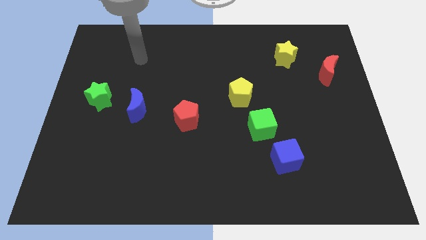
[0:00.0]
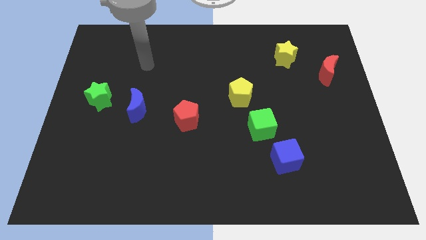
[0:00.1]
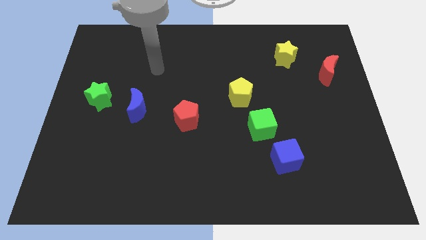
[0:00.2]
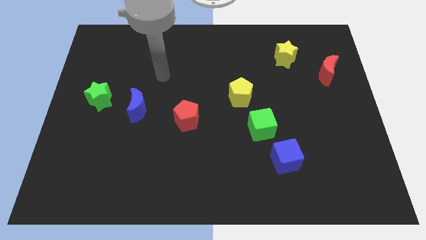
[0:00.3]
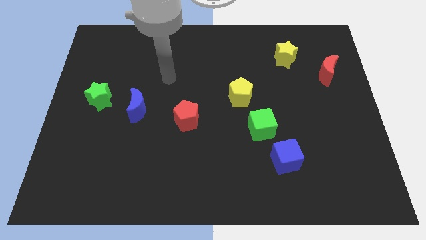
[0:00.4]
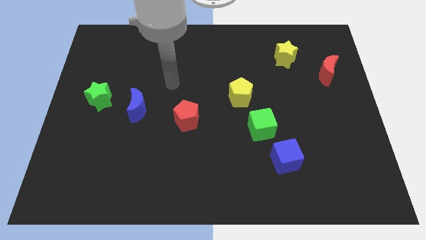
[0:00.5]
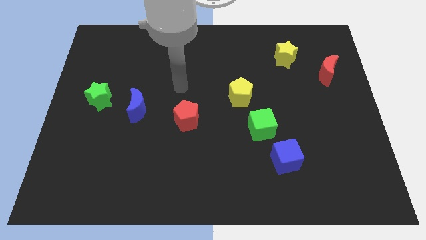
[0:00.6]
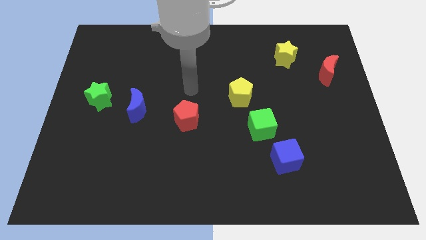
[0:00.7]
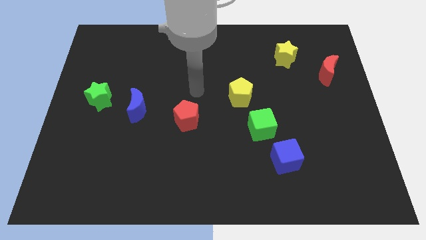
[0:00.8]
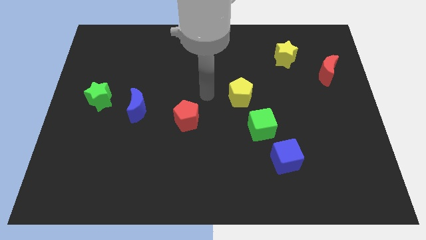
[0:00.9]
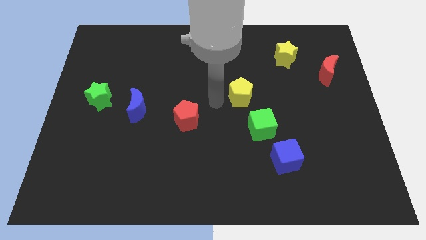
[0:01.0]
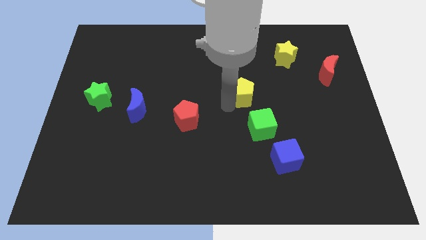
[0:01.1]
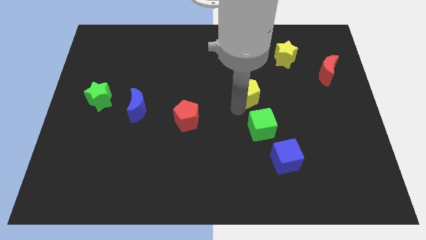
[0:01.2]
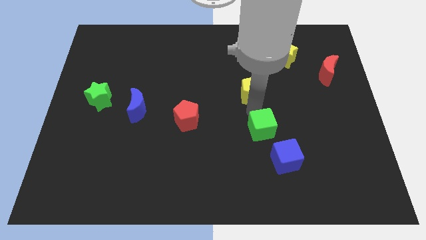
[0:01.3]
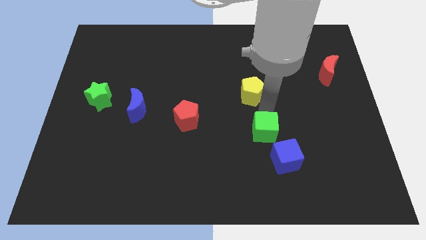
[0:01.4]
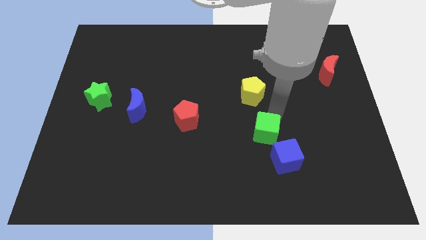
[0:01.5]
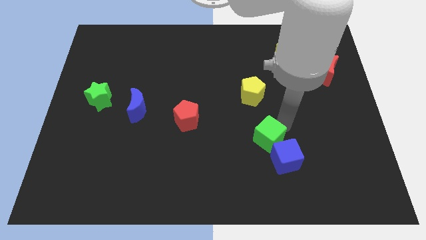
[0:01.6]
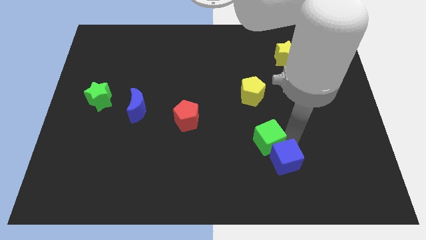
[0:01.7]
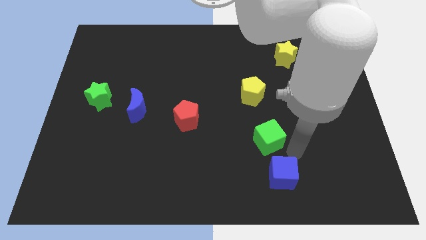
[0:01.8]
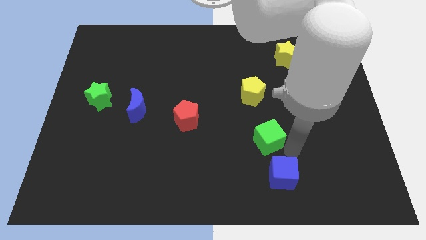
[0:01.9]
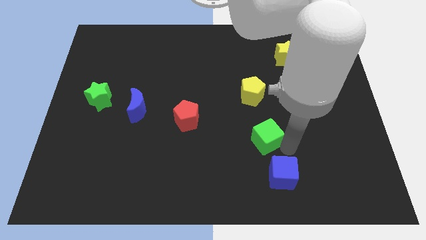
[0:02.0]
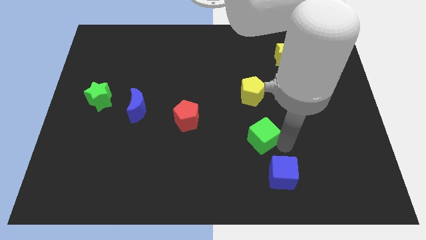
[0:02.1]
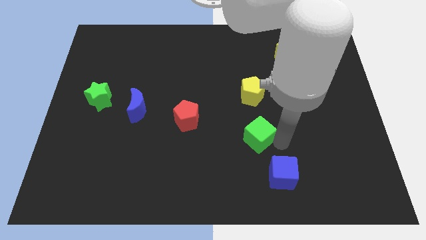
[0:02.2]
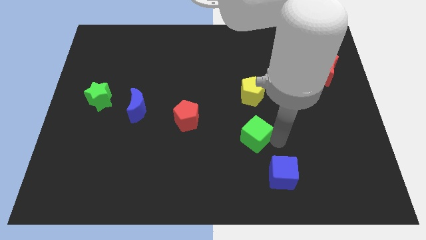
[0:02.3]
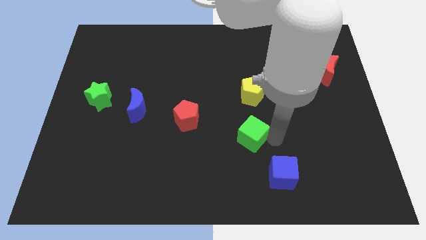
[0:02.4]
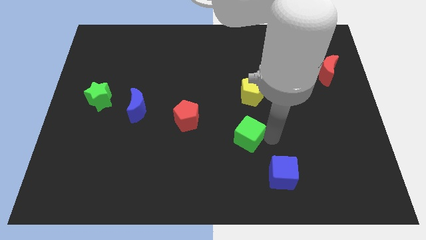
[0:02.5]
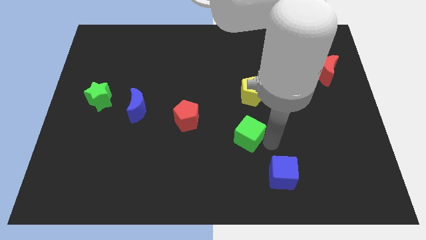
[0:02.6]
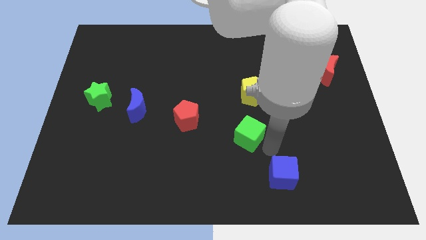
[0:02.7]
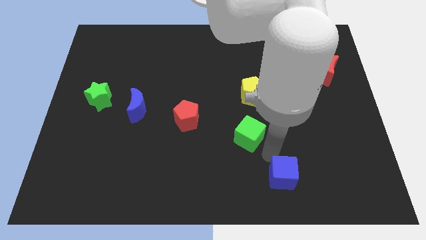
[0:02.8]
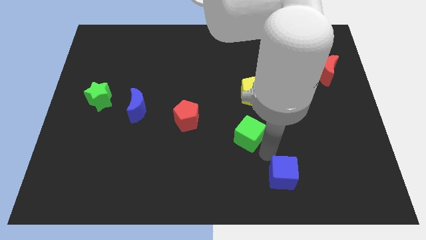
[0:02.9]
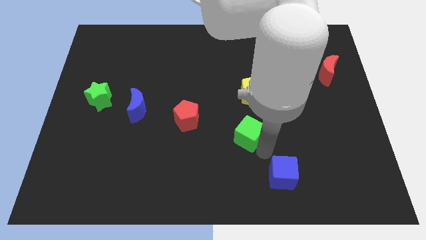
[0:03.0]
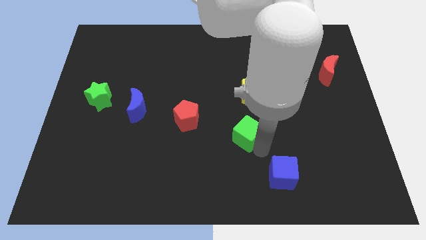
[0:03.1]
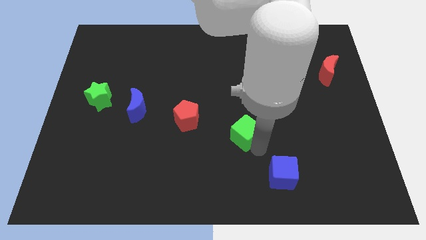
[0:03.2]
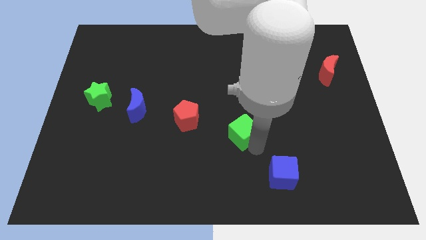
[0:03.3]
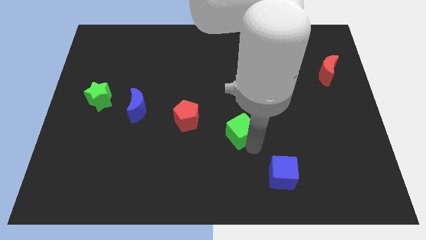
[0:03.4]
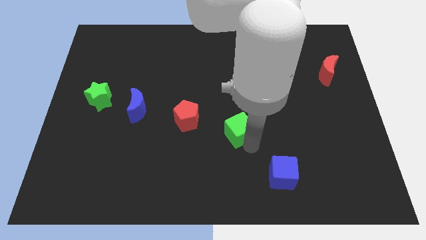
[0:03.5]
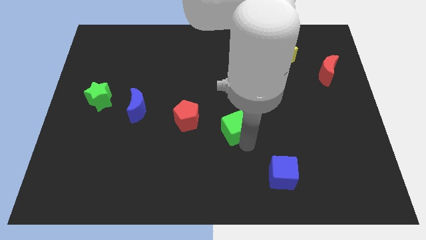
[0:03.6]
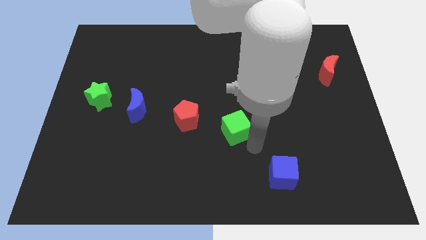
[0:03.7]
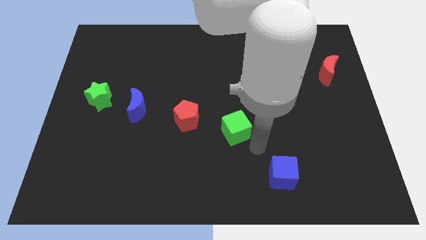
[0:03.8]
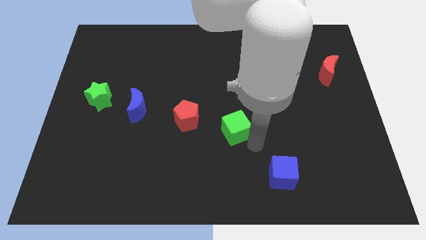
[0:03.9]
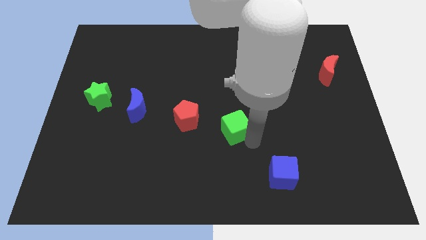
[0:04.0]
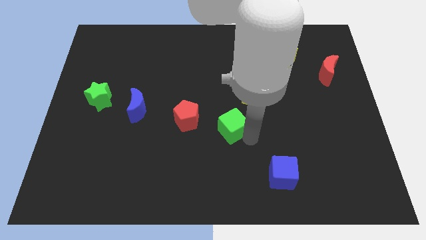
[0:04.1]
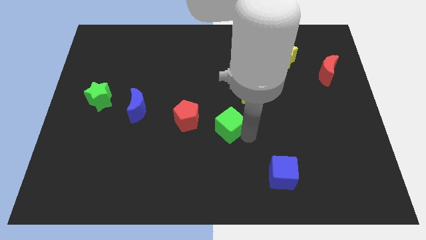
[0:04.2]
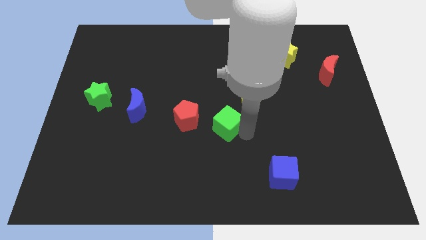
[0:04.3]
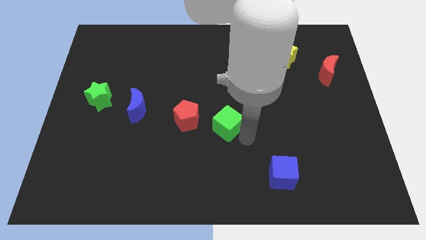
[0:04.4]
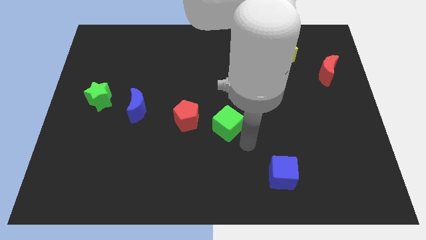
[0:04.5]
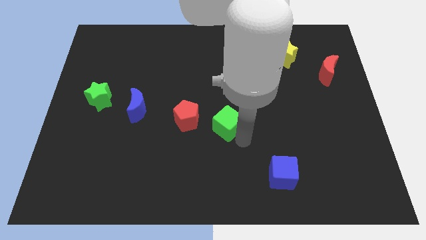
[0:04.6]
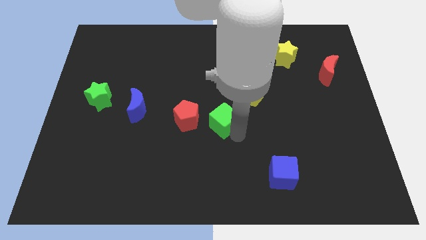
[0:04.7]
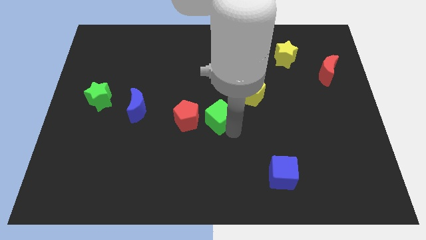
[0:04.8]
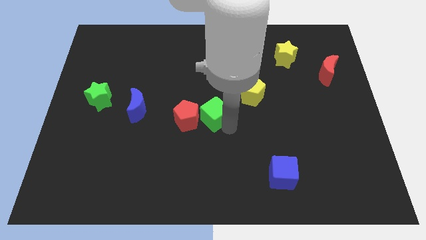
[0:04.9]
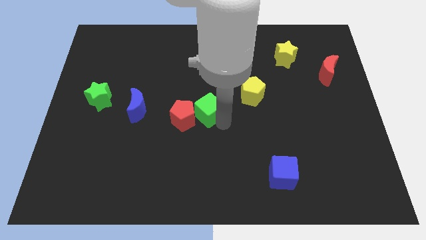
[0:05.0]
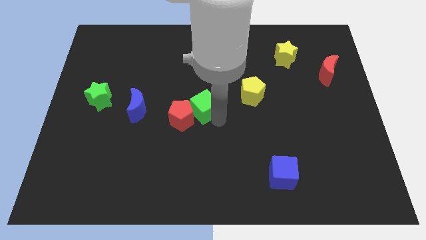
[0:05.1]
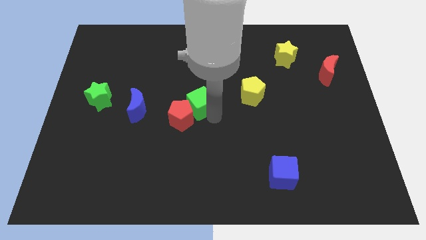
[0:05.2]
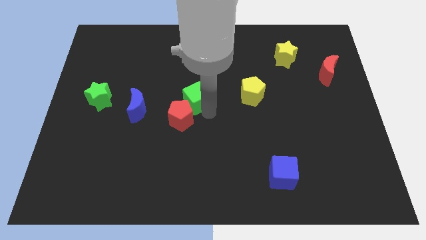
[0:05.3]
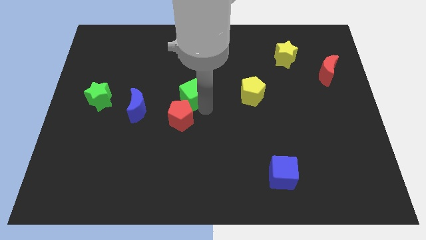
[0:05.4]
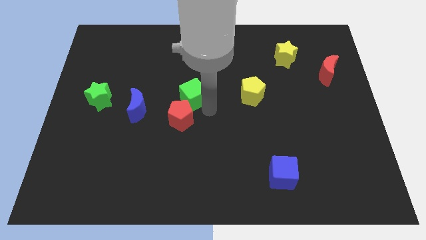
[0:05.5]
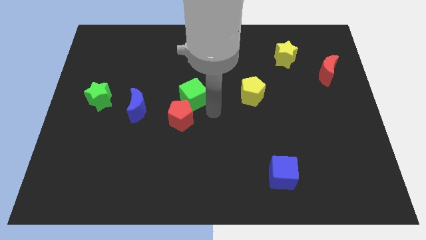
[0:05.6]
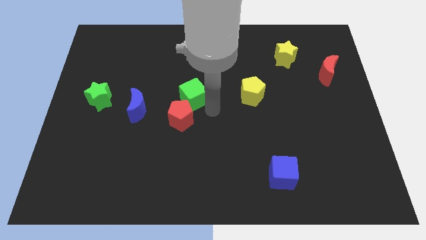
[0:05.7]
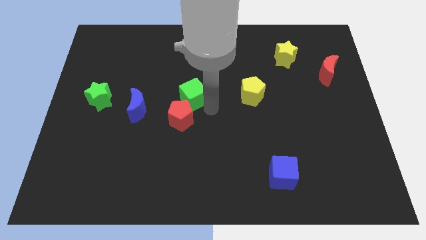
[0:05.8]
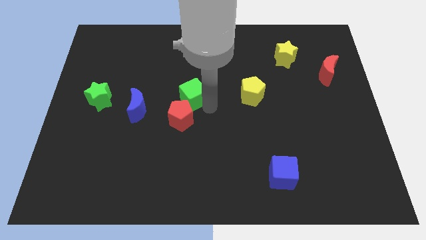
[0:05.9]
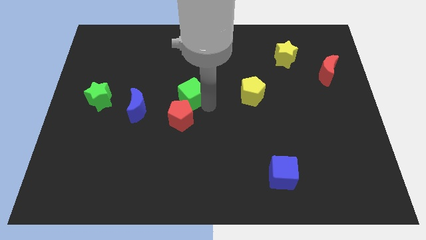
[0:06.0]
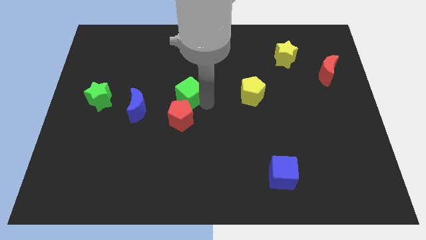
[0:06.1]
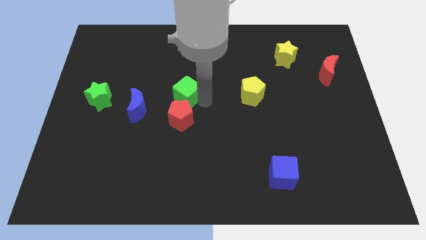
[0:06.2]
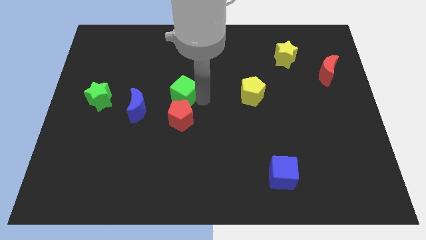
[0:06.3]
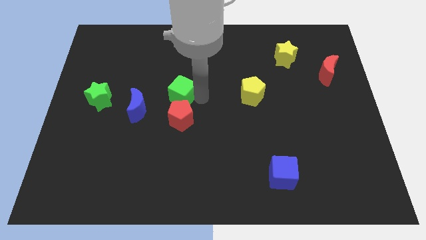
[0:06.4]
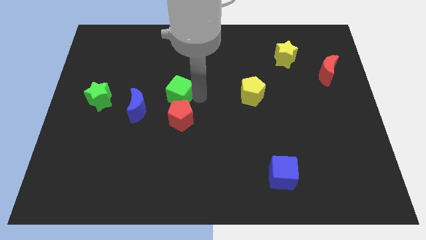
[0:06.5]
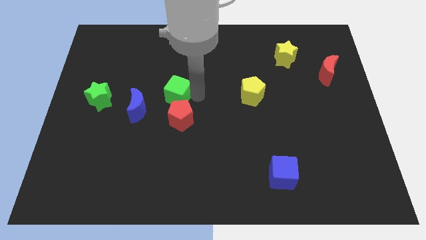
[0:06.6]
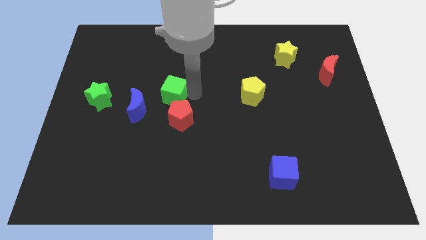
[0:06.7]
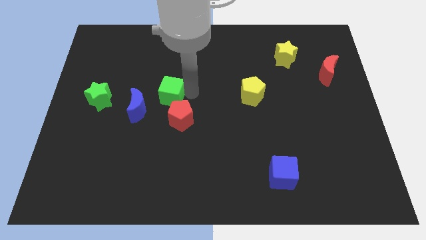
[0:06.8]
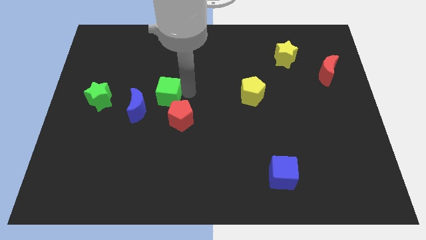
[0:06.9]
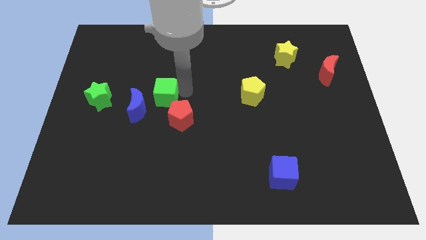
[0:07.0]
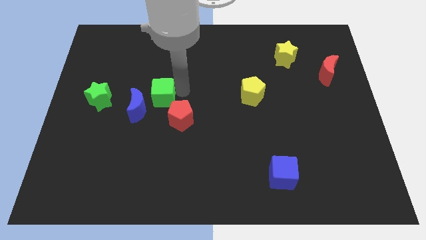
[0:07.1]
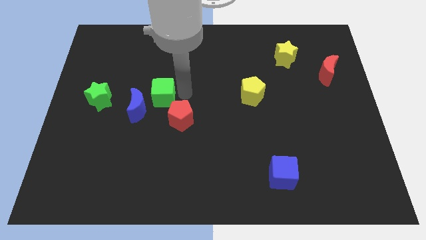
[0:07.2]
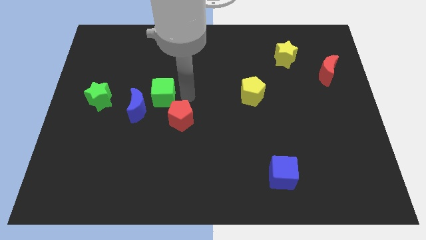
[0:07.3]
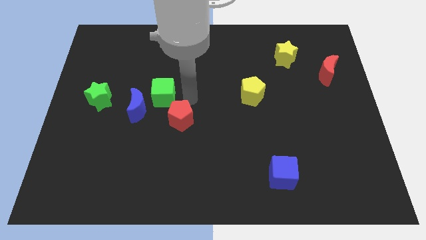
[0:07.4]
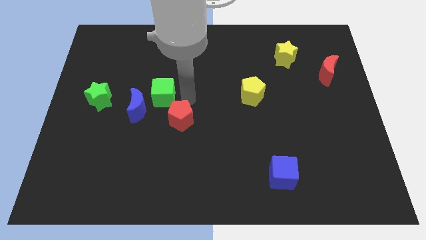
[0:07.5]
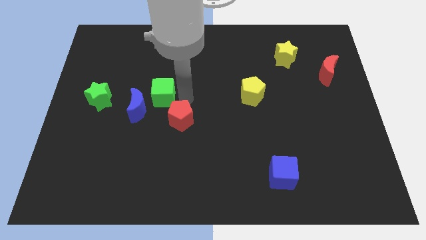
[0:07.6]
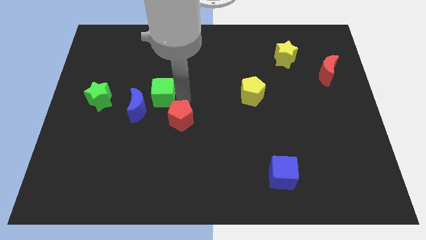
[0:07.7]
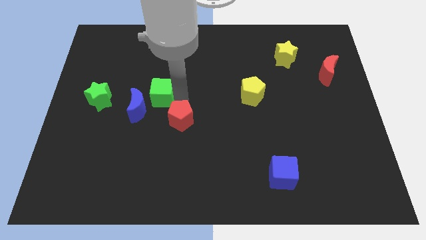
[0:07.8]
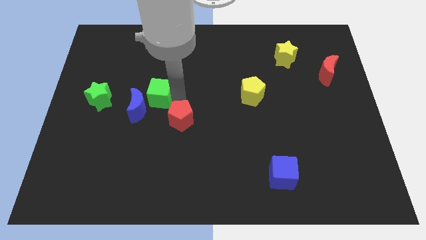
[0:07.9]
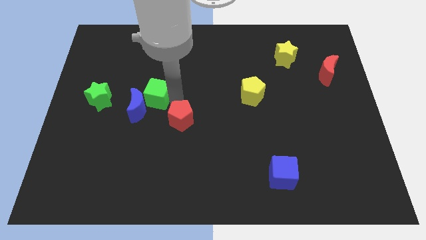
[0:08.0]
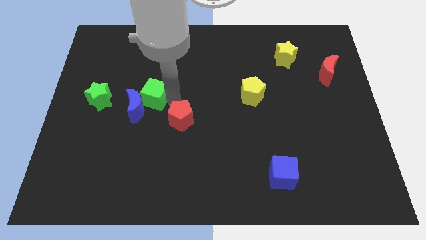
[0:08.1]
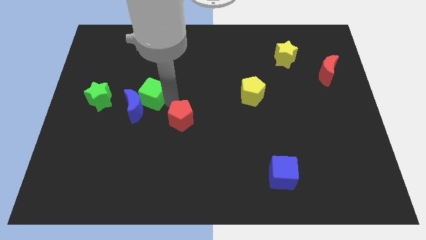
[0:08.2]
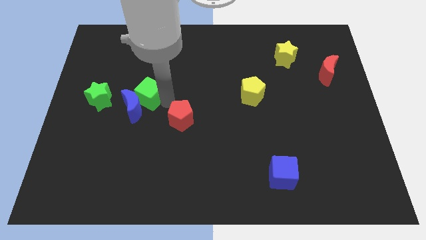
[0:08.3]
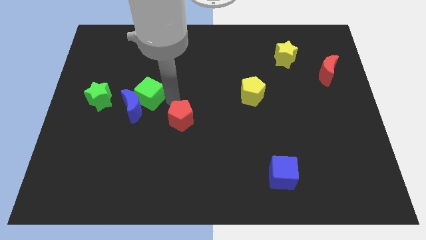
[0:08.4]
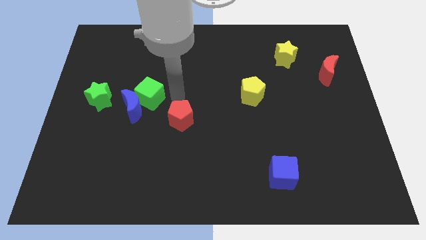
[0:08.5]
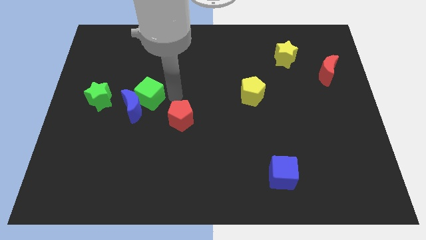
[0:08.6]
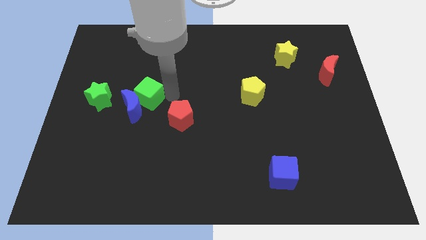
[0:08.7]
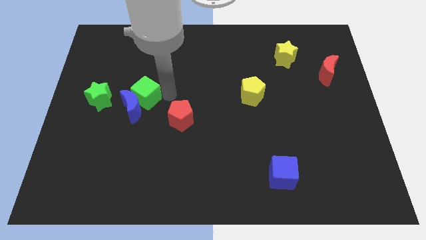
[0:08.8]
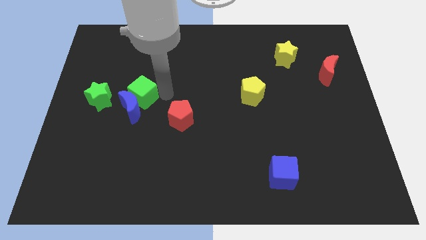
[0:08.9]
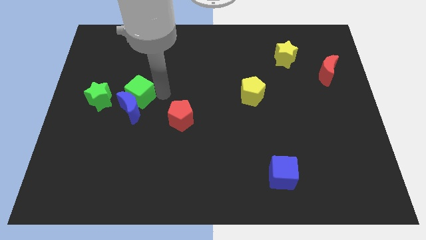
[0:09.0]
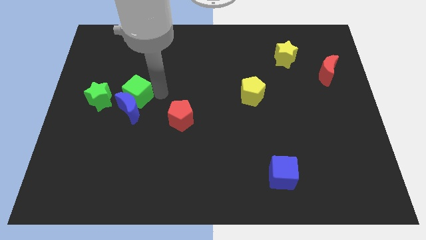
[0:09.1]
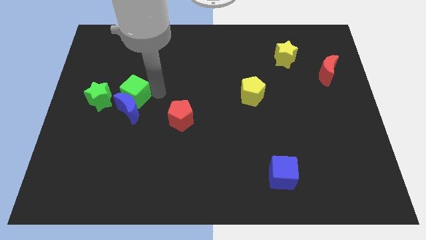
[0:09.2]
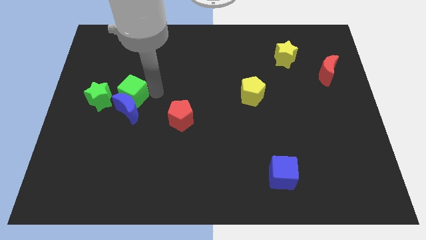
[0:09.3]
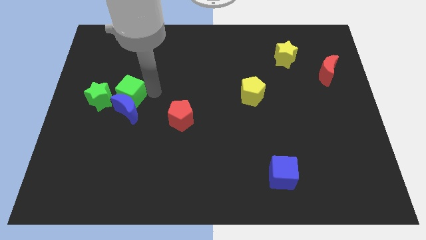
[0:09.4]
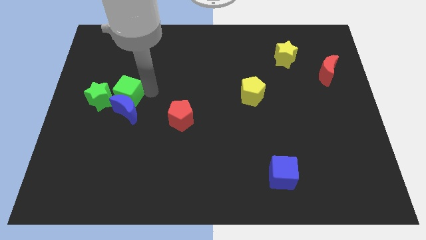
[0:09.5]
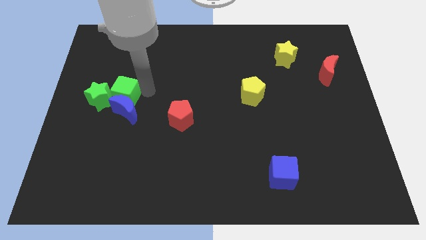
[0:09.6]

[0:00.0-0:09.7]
move the green cube next to the green star
